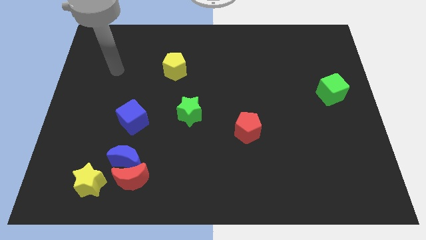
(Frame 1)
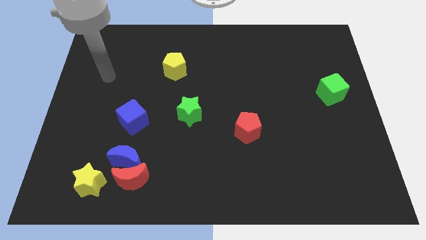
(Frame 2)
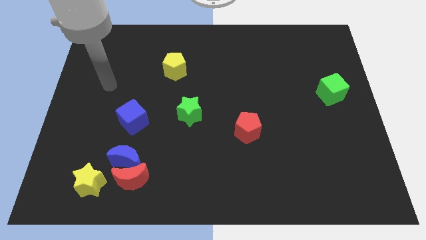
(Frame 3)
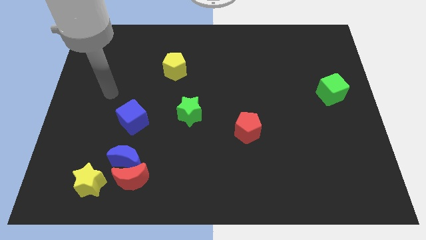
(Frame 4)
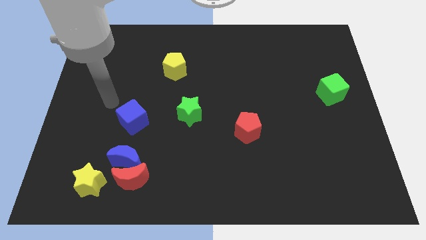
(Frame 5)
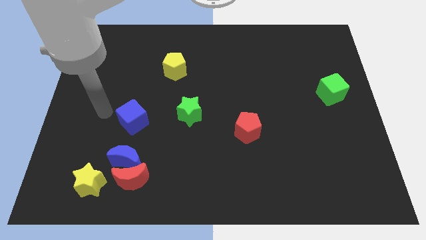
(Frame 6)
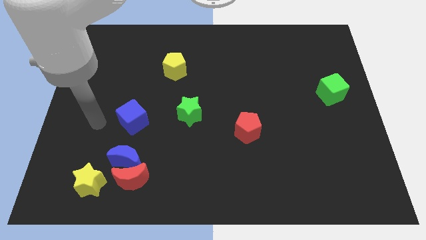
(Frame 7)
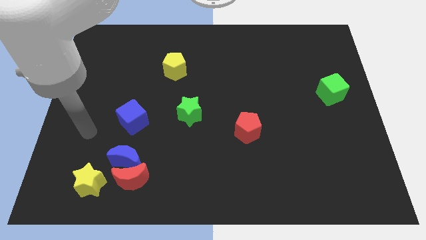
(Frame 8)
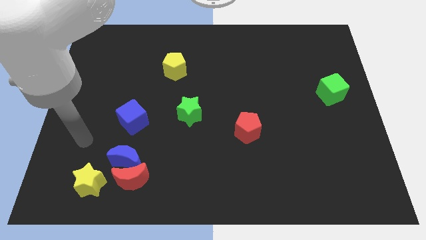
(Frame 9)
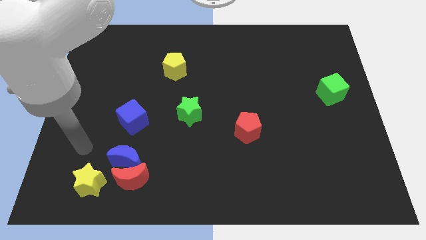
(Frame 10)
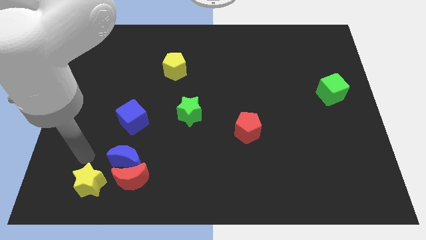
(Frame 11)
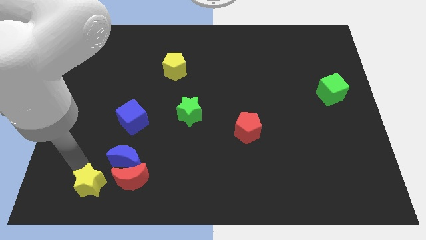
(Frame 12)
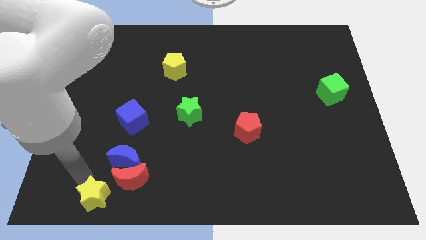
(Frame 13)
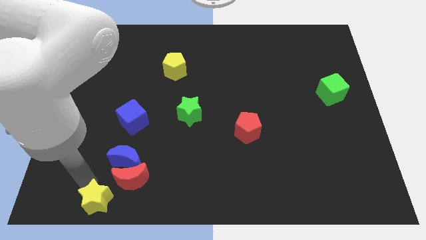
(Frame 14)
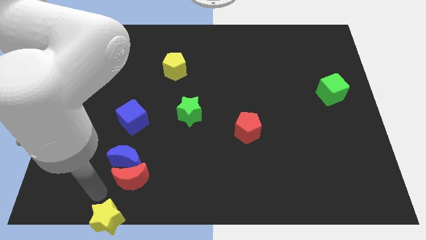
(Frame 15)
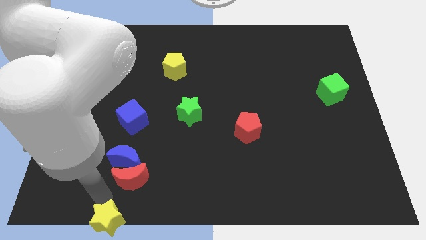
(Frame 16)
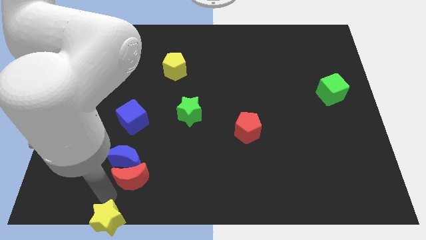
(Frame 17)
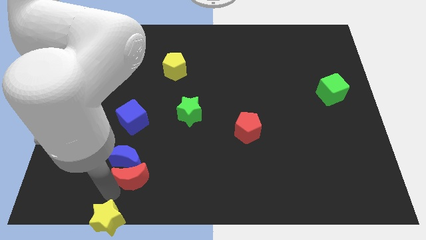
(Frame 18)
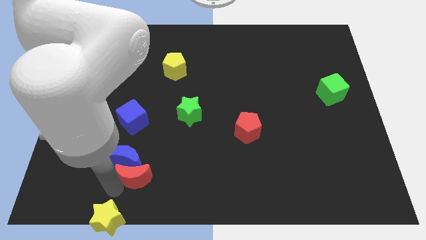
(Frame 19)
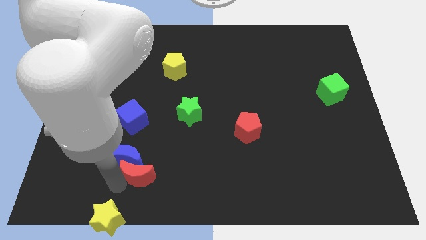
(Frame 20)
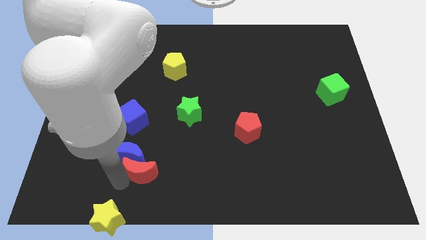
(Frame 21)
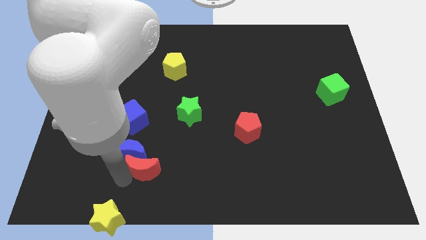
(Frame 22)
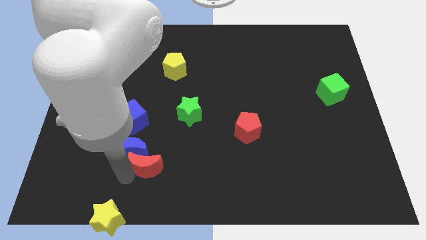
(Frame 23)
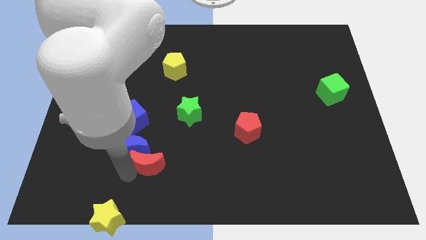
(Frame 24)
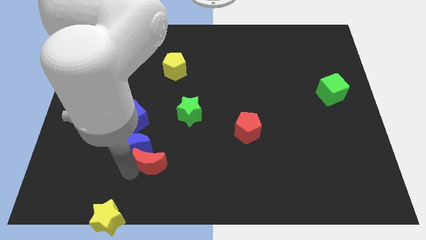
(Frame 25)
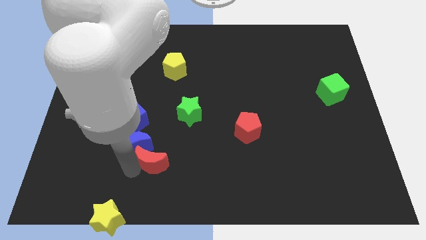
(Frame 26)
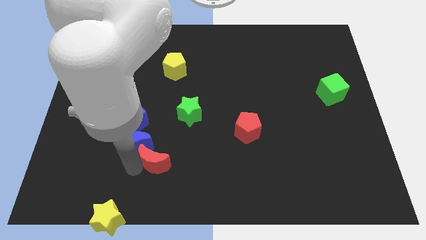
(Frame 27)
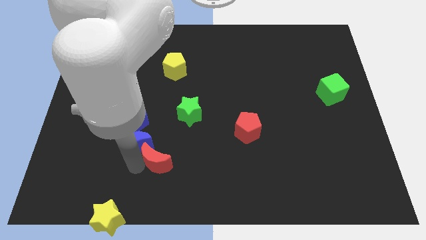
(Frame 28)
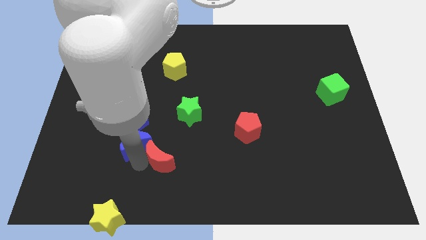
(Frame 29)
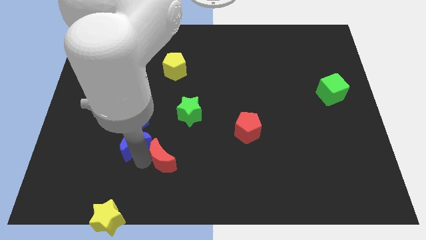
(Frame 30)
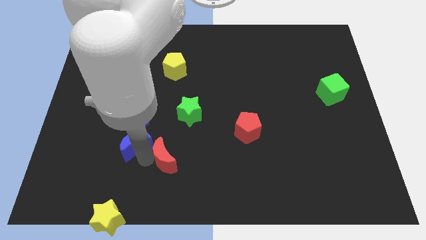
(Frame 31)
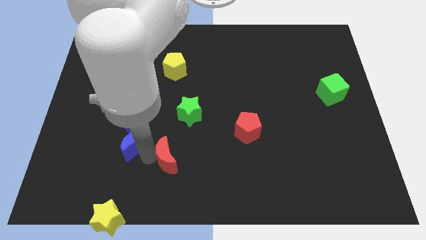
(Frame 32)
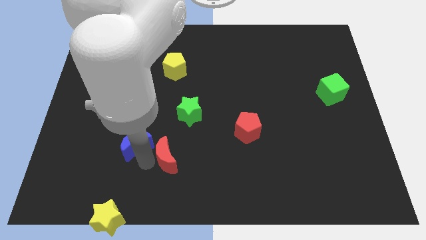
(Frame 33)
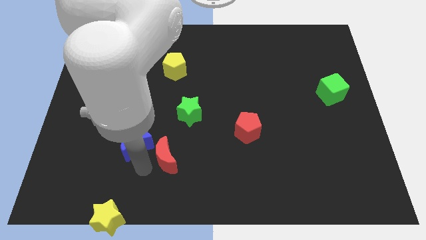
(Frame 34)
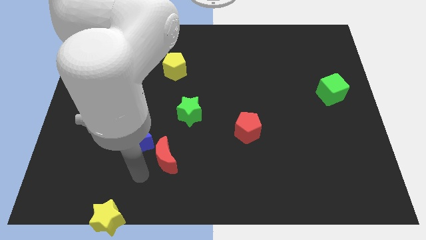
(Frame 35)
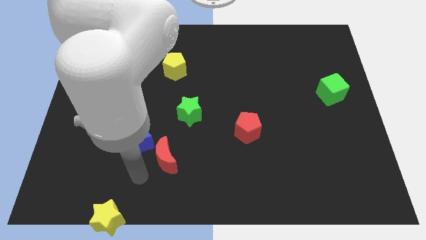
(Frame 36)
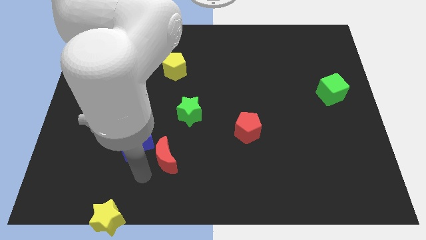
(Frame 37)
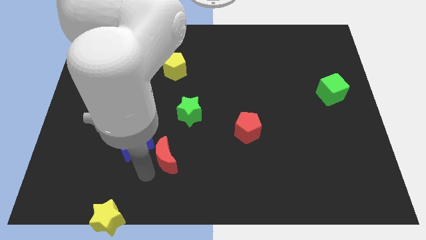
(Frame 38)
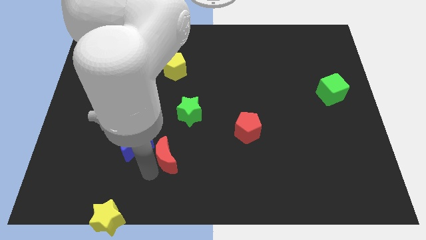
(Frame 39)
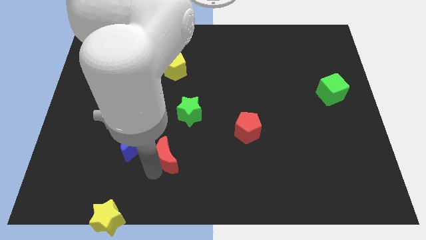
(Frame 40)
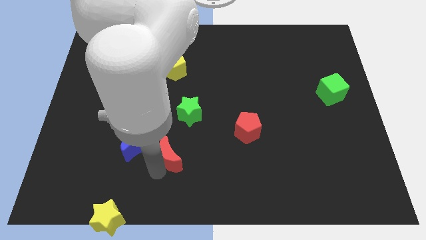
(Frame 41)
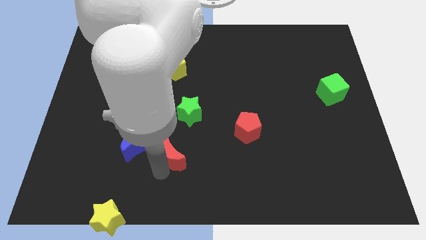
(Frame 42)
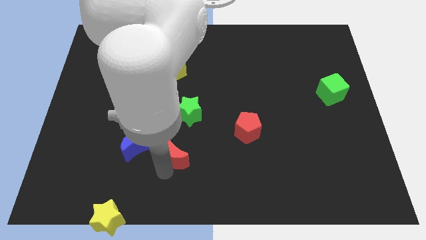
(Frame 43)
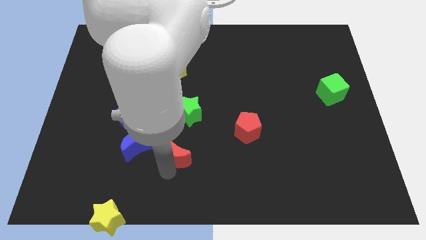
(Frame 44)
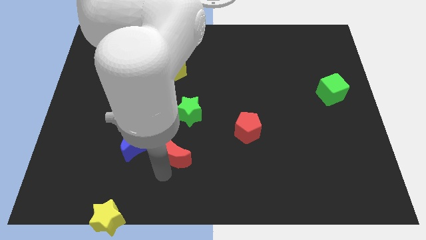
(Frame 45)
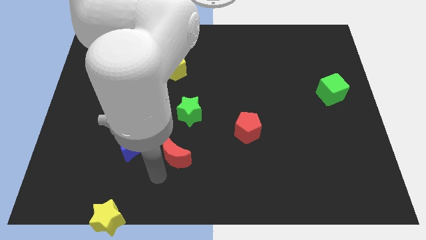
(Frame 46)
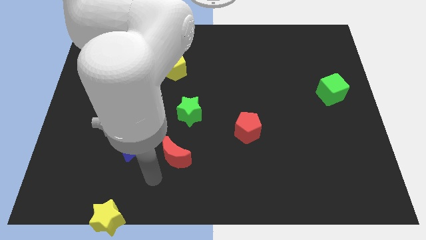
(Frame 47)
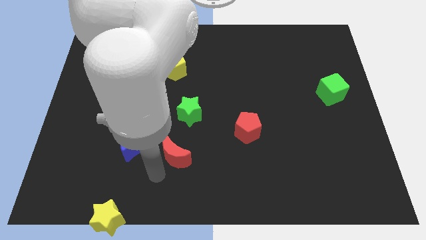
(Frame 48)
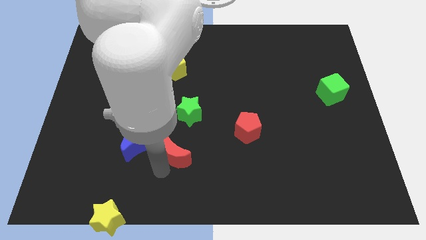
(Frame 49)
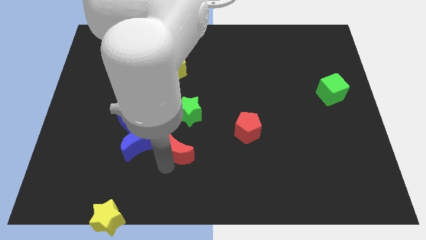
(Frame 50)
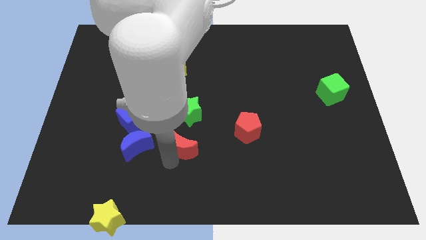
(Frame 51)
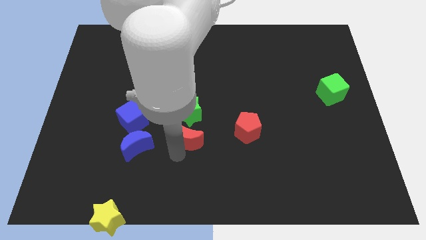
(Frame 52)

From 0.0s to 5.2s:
move the red moon to the middle

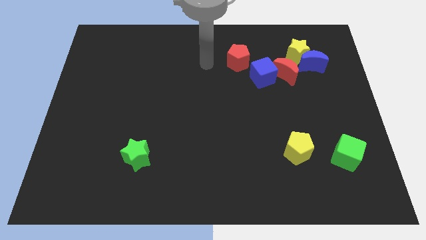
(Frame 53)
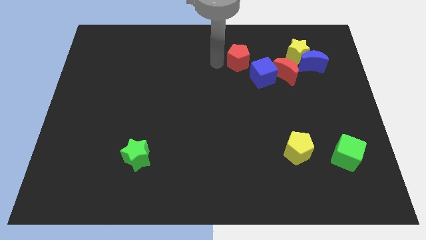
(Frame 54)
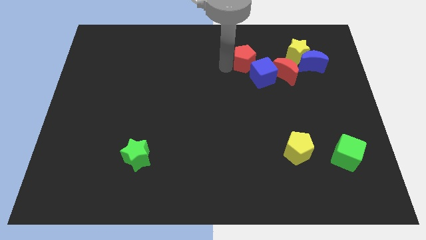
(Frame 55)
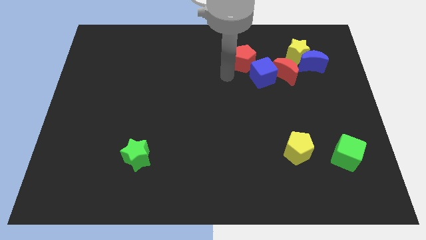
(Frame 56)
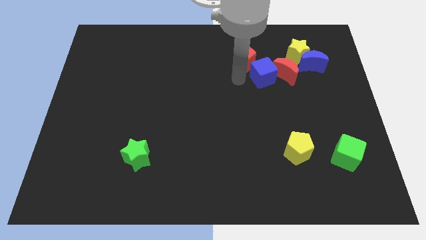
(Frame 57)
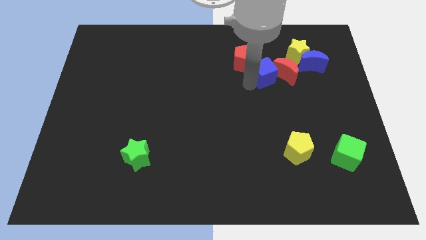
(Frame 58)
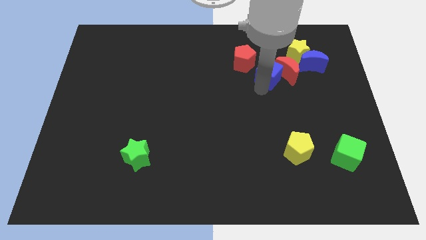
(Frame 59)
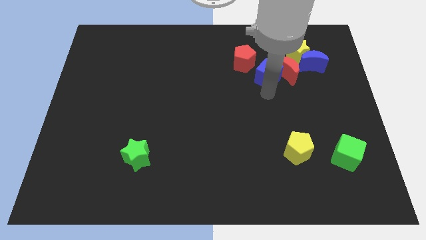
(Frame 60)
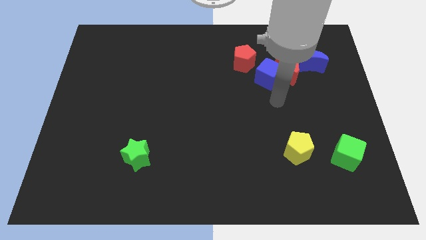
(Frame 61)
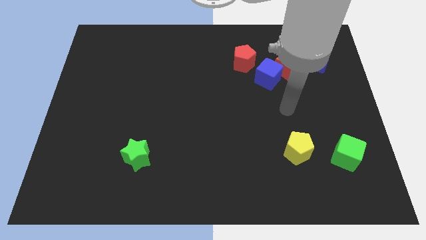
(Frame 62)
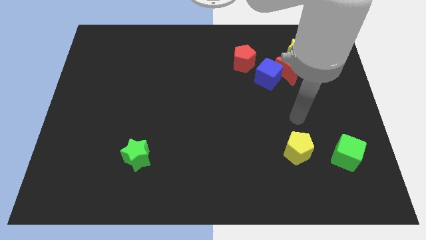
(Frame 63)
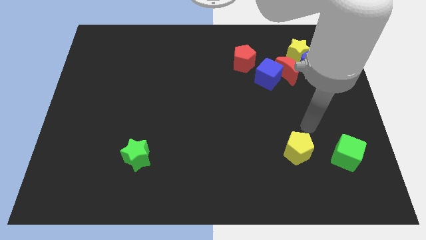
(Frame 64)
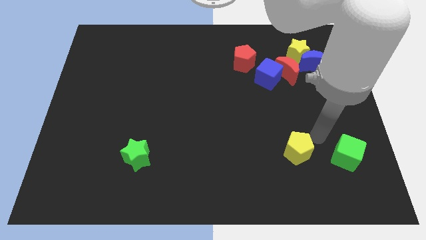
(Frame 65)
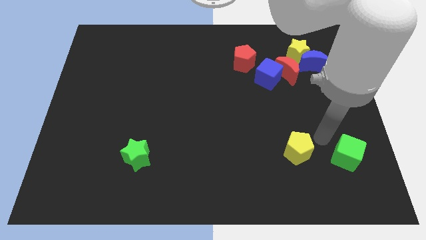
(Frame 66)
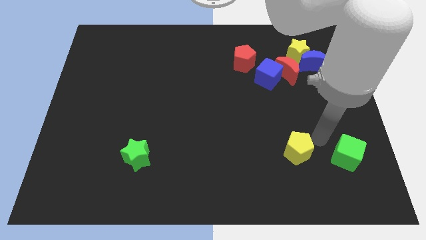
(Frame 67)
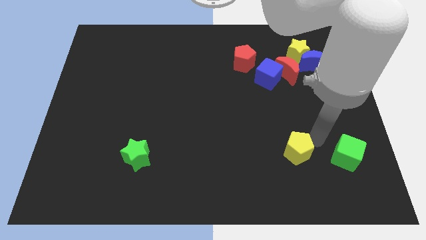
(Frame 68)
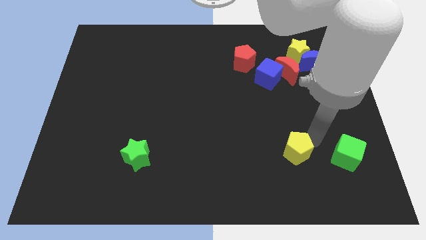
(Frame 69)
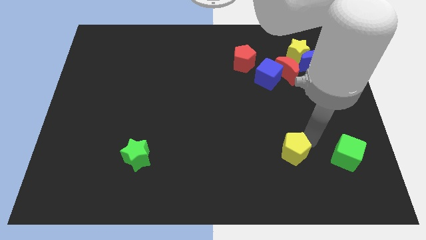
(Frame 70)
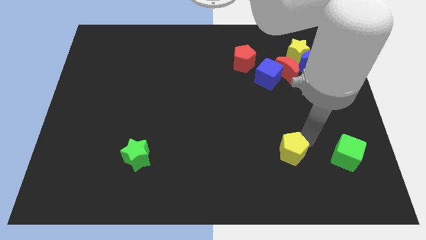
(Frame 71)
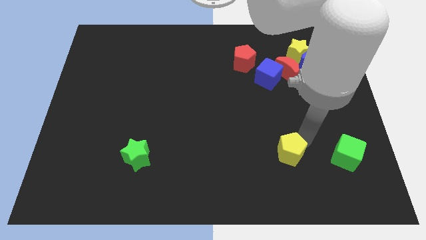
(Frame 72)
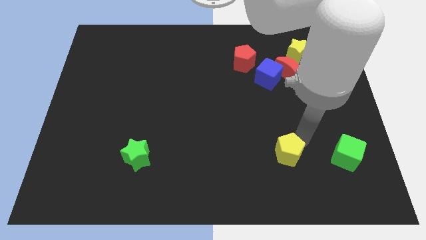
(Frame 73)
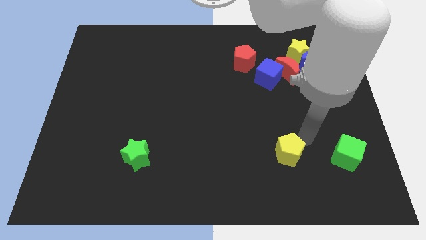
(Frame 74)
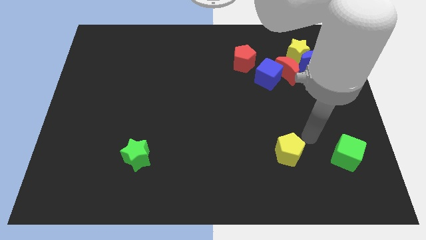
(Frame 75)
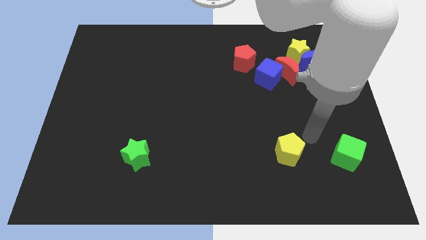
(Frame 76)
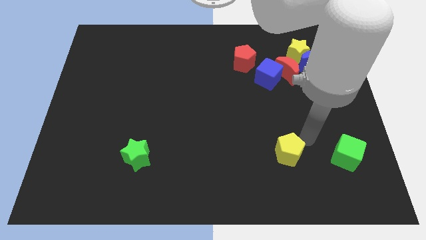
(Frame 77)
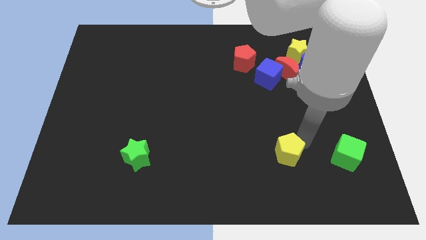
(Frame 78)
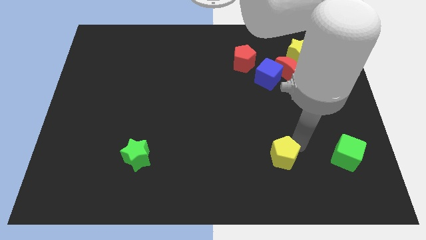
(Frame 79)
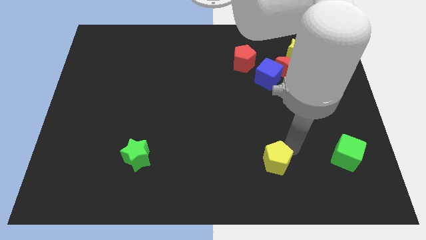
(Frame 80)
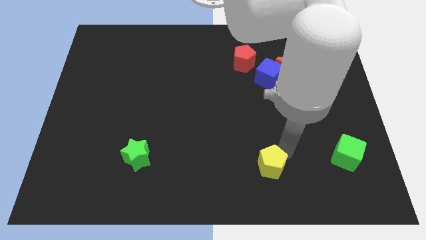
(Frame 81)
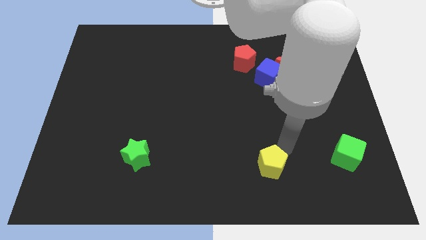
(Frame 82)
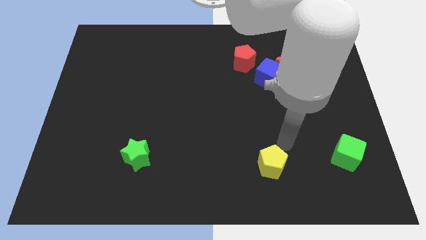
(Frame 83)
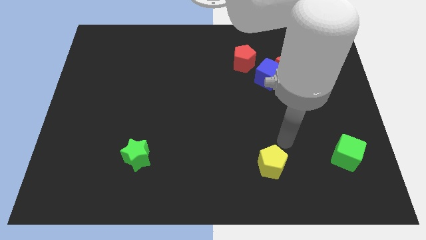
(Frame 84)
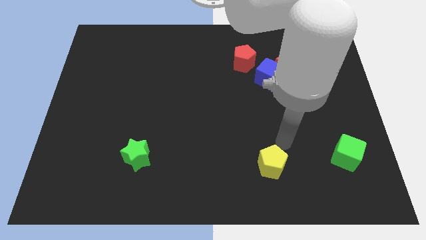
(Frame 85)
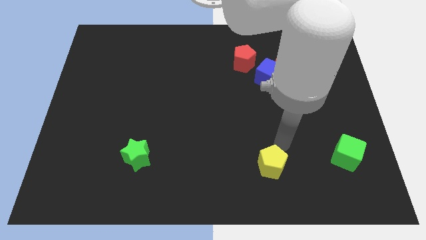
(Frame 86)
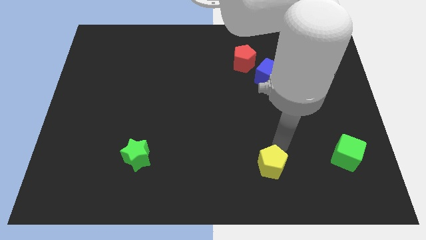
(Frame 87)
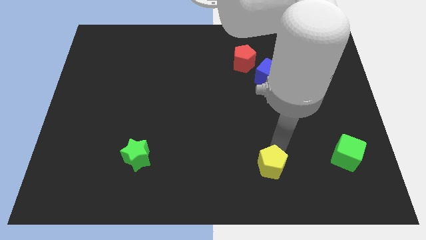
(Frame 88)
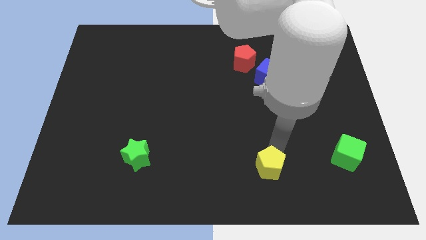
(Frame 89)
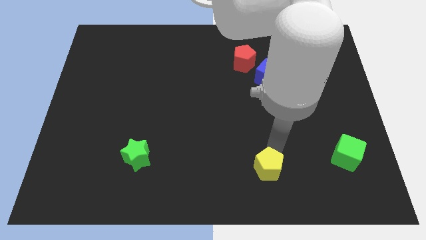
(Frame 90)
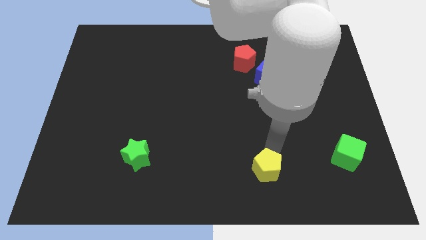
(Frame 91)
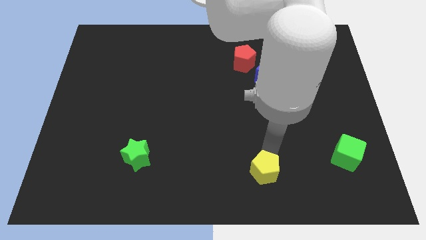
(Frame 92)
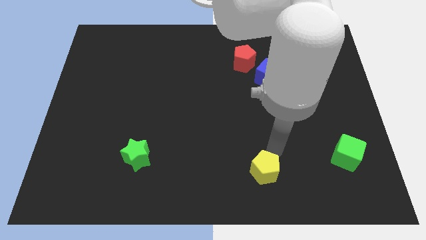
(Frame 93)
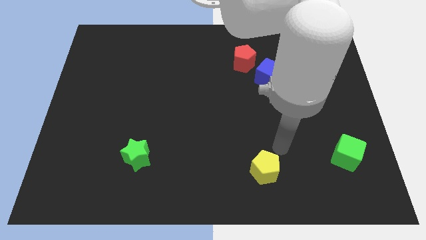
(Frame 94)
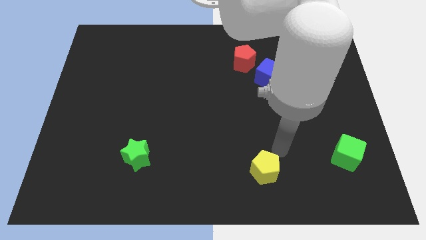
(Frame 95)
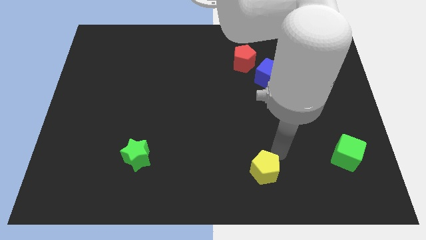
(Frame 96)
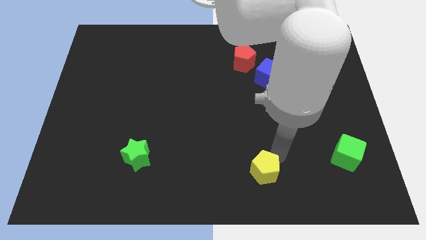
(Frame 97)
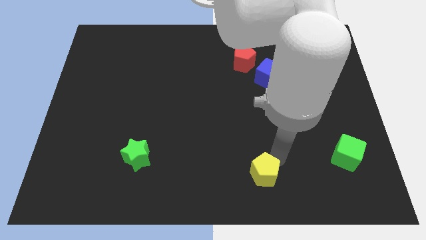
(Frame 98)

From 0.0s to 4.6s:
slide the yellow pentagon to the bottom
